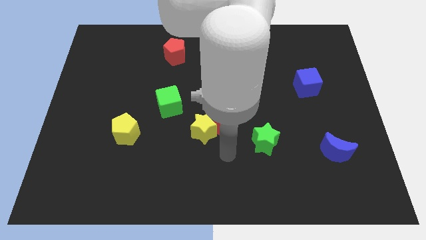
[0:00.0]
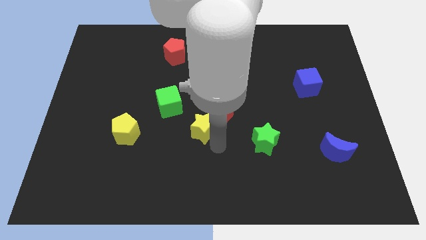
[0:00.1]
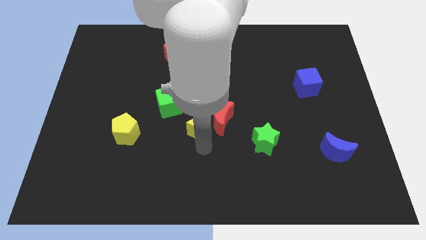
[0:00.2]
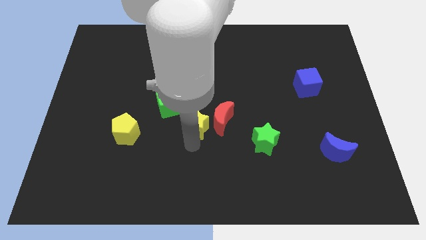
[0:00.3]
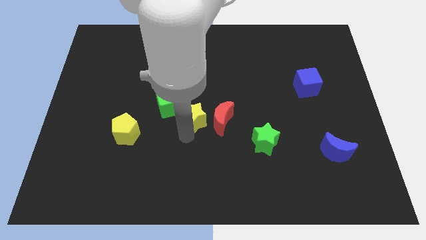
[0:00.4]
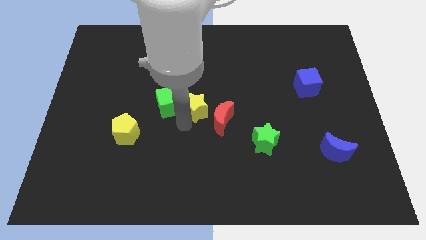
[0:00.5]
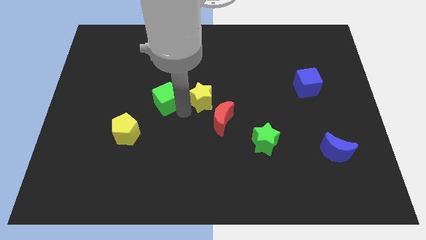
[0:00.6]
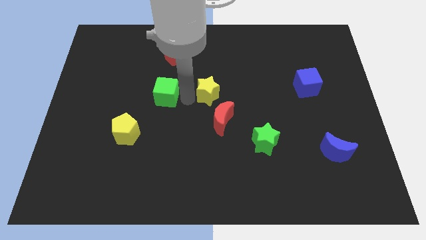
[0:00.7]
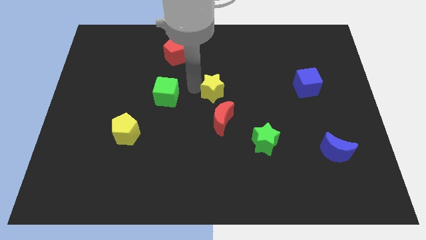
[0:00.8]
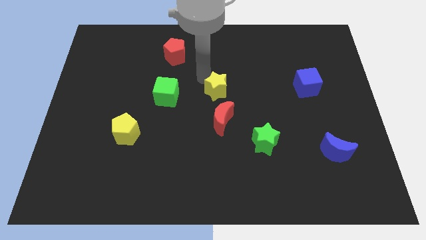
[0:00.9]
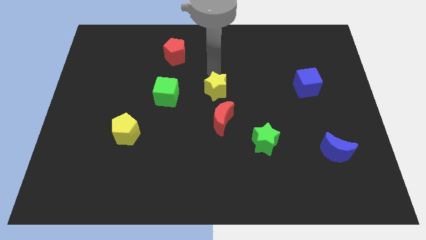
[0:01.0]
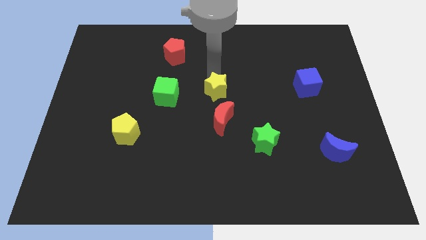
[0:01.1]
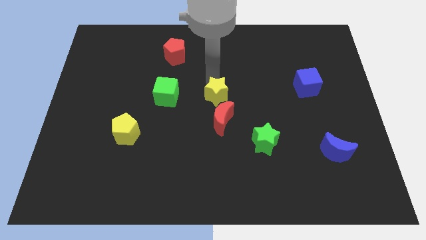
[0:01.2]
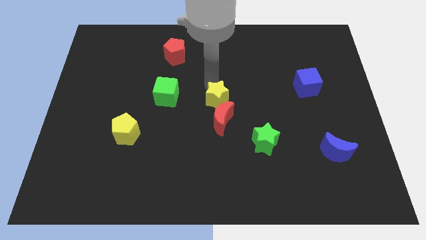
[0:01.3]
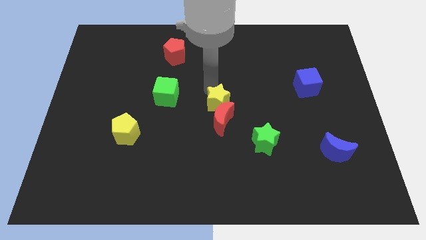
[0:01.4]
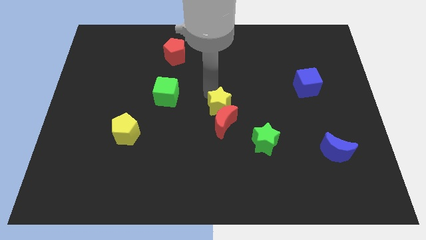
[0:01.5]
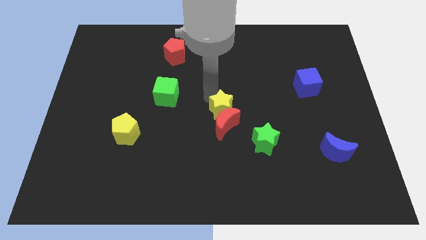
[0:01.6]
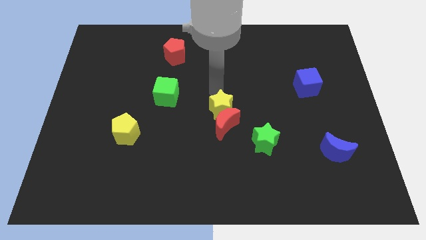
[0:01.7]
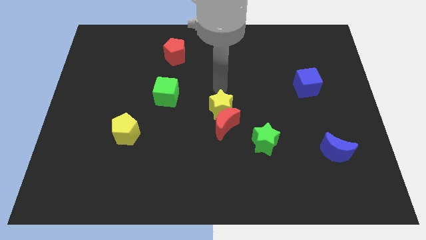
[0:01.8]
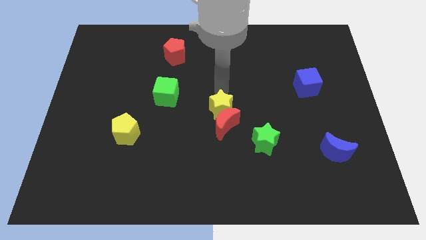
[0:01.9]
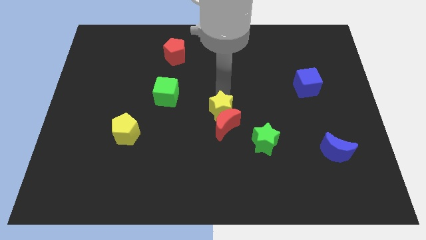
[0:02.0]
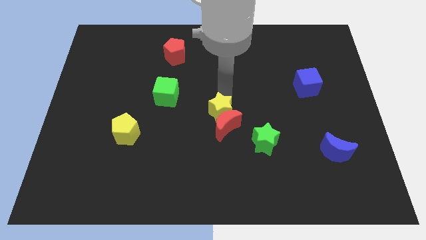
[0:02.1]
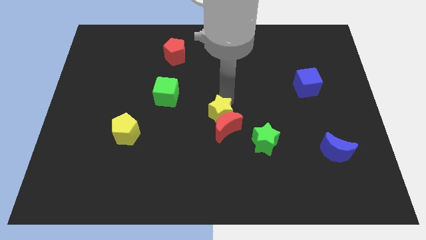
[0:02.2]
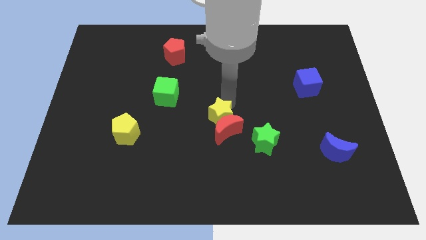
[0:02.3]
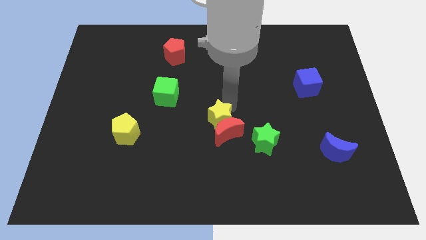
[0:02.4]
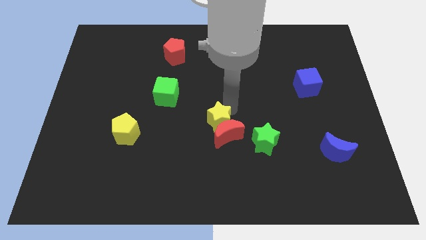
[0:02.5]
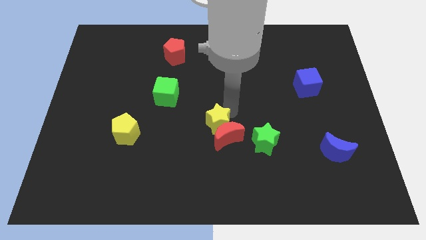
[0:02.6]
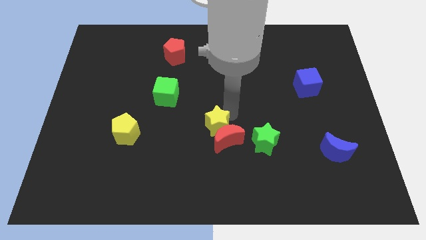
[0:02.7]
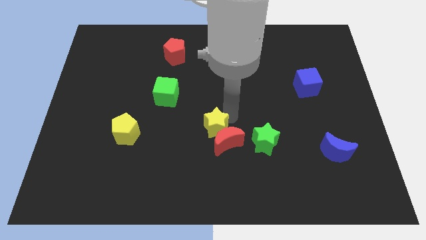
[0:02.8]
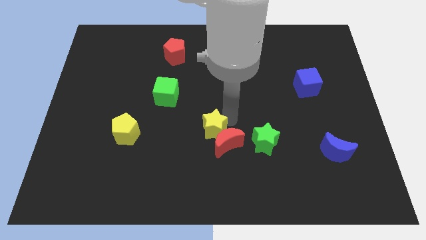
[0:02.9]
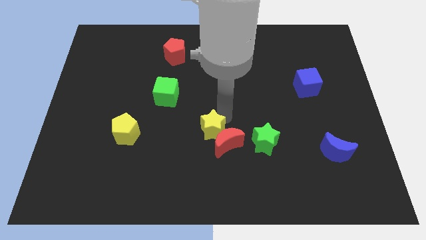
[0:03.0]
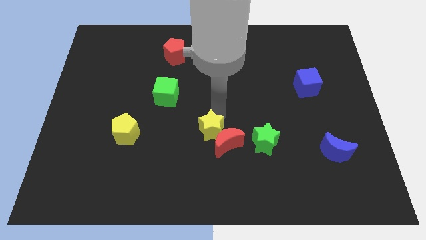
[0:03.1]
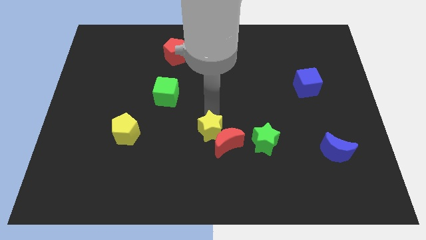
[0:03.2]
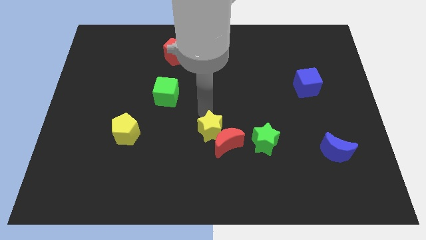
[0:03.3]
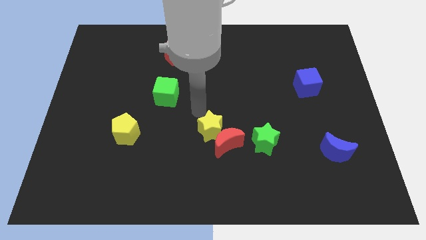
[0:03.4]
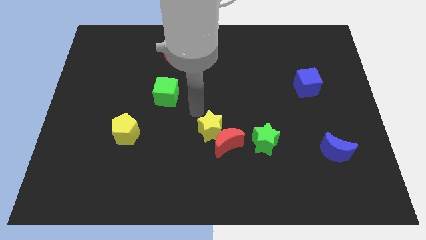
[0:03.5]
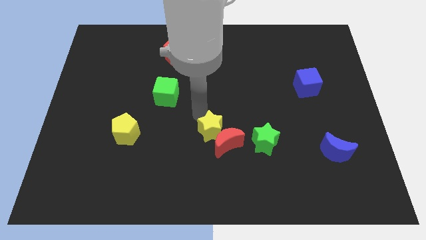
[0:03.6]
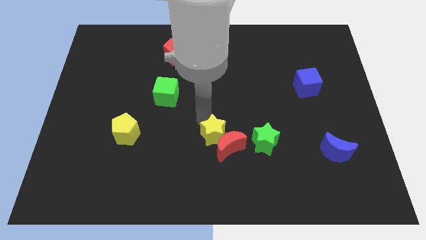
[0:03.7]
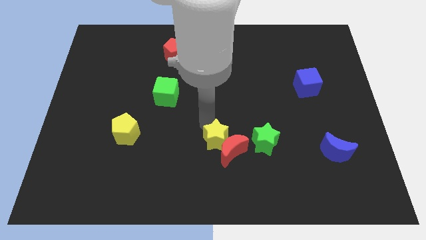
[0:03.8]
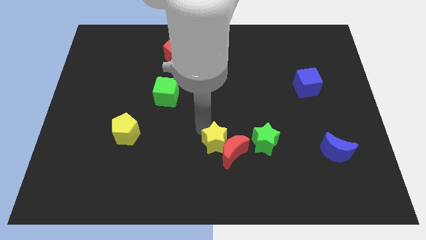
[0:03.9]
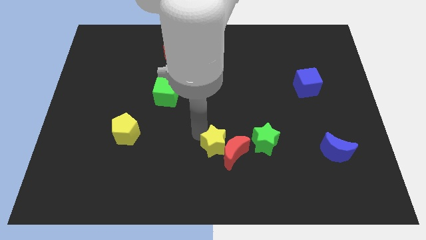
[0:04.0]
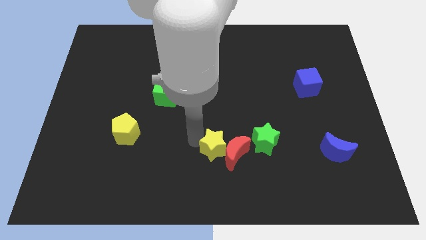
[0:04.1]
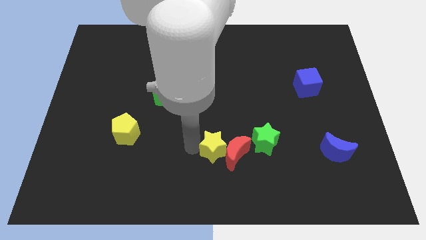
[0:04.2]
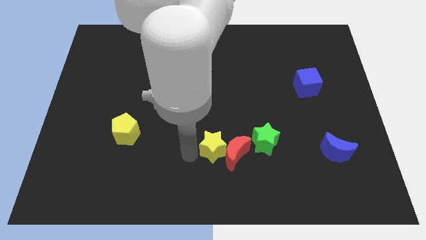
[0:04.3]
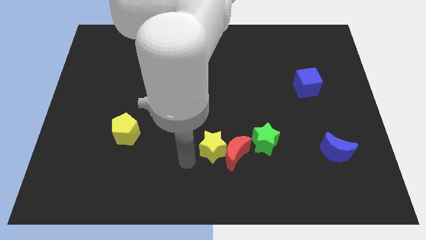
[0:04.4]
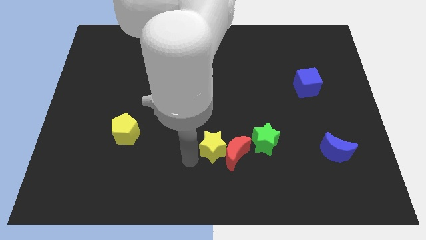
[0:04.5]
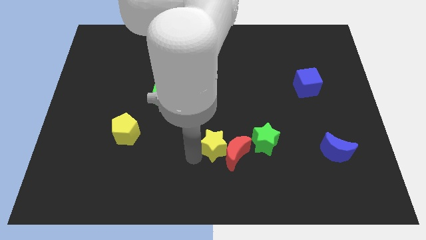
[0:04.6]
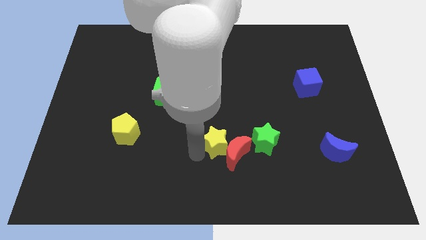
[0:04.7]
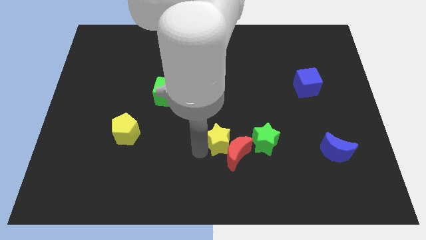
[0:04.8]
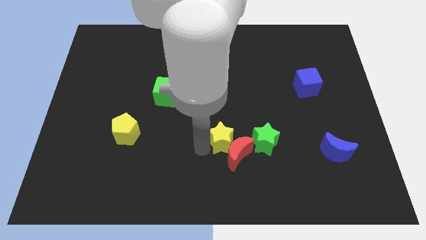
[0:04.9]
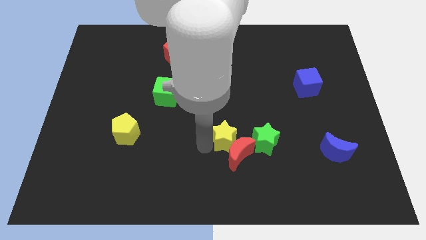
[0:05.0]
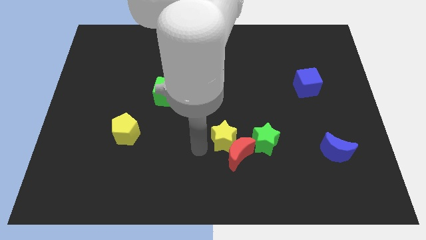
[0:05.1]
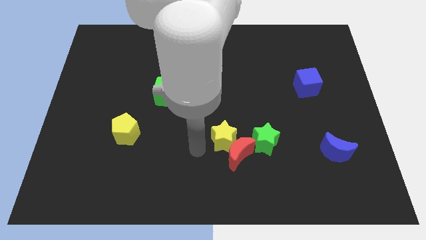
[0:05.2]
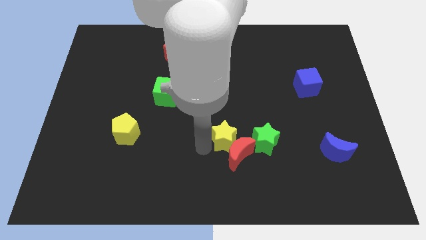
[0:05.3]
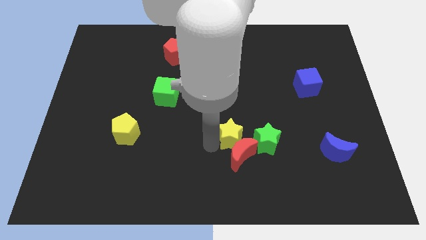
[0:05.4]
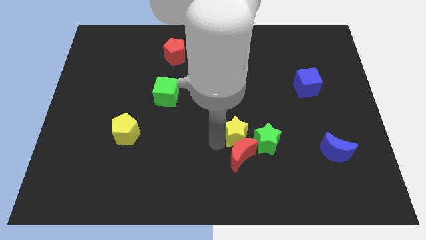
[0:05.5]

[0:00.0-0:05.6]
slightly slide the yellow star to the right

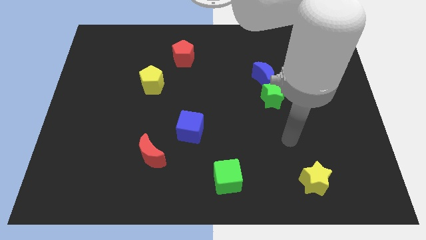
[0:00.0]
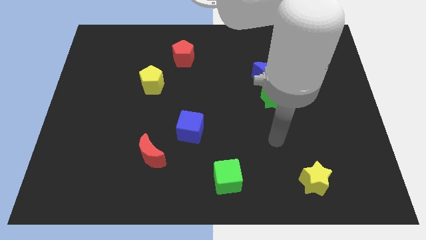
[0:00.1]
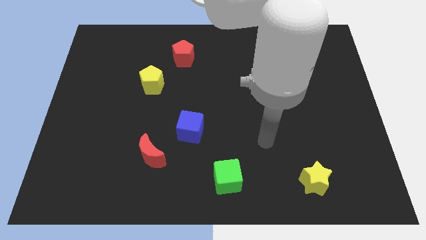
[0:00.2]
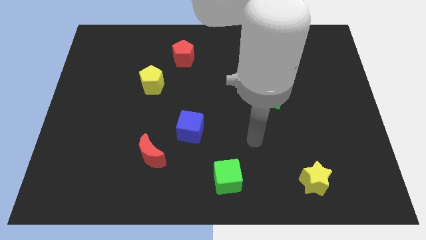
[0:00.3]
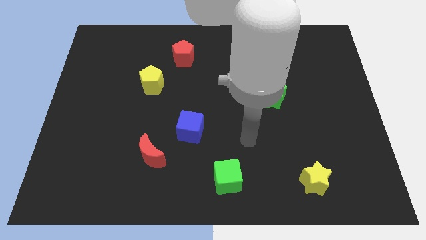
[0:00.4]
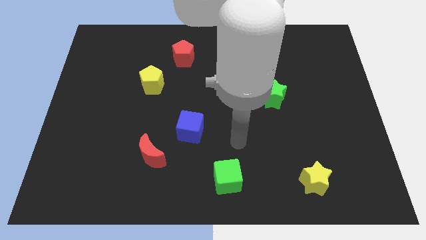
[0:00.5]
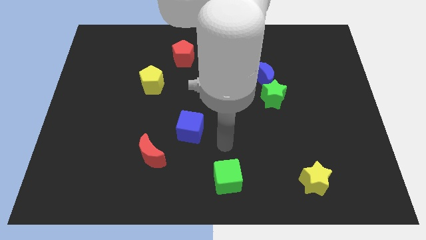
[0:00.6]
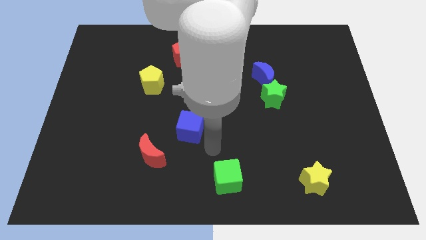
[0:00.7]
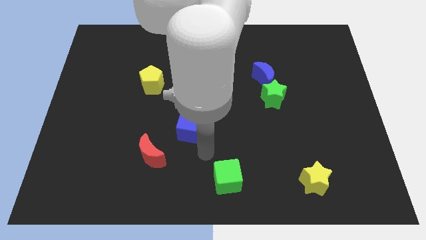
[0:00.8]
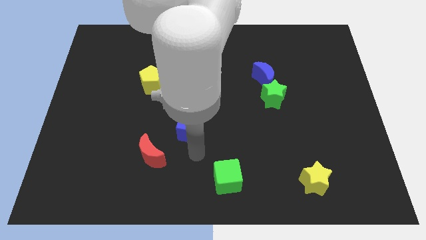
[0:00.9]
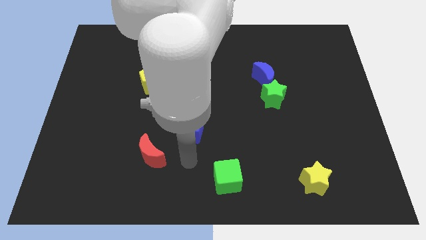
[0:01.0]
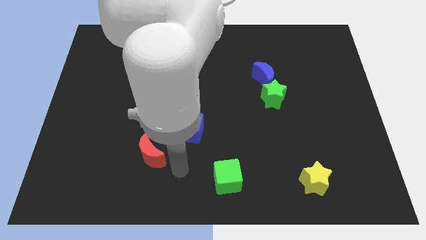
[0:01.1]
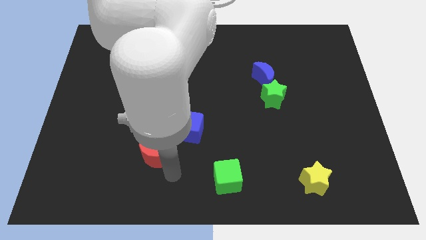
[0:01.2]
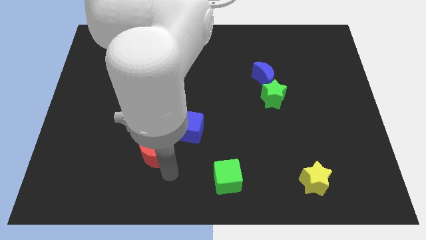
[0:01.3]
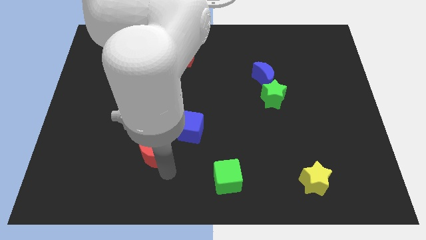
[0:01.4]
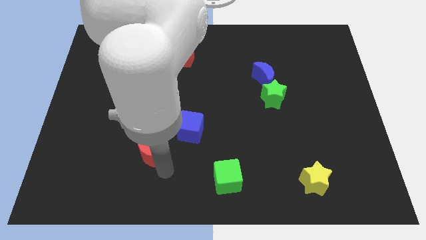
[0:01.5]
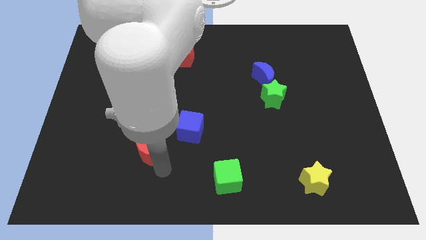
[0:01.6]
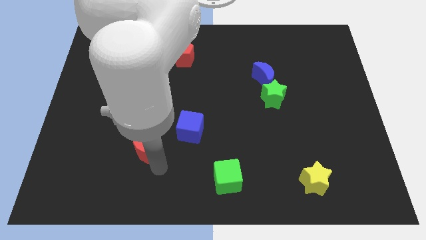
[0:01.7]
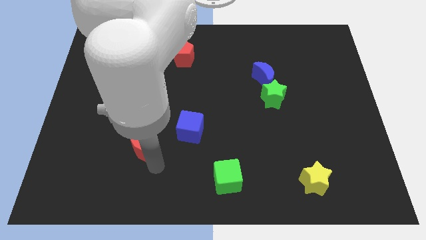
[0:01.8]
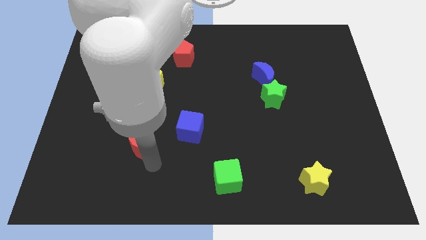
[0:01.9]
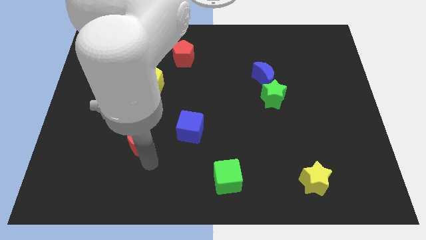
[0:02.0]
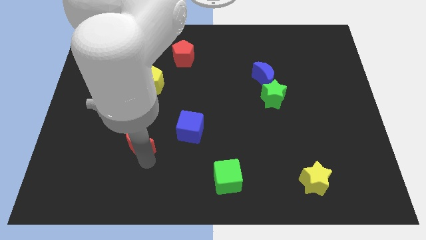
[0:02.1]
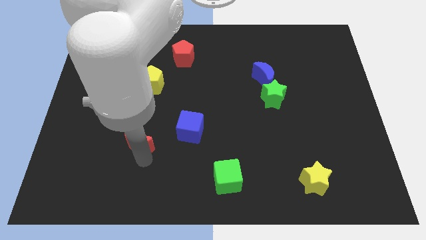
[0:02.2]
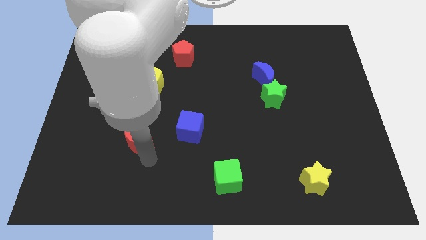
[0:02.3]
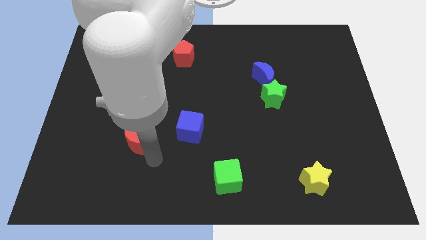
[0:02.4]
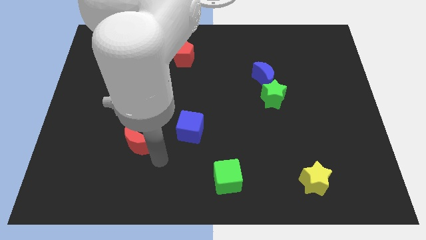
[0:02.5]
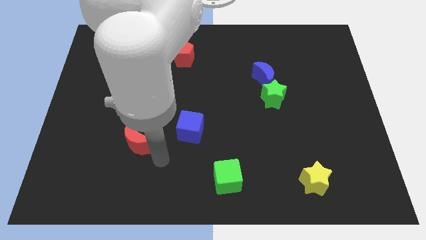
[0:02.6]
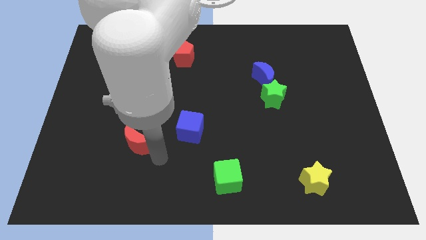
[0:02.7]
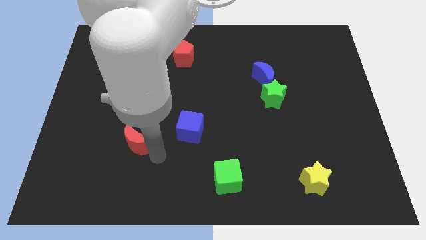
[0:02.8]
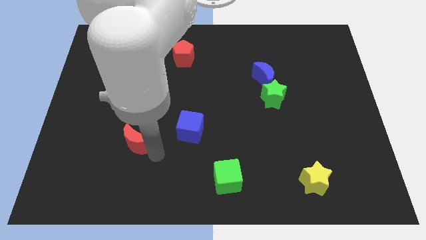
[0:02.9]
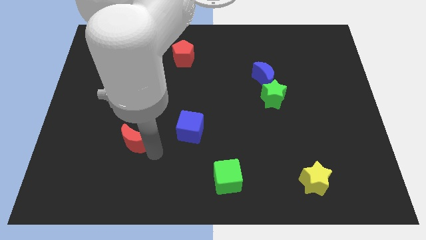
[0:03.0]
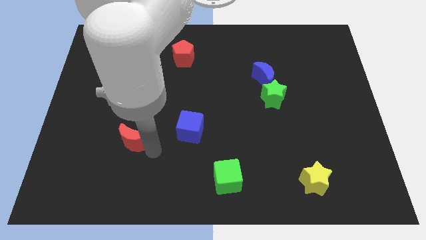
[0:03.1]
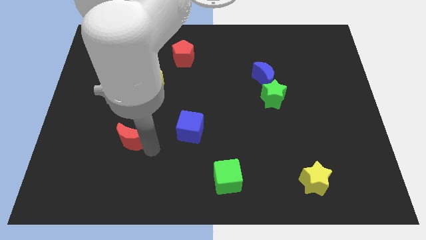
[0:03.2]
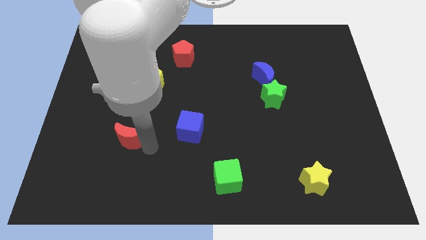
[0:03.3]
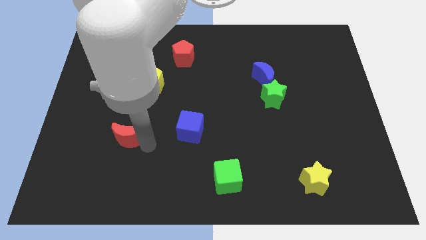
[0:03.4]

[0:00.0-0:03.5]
move the red moon diagonally up and left a bit
